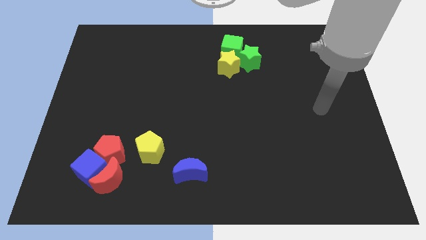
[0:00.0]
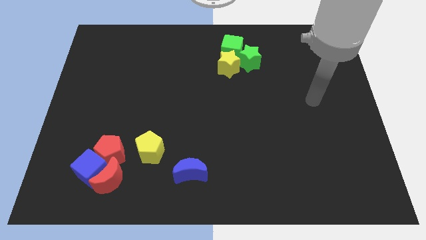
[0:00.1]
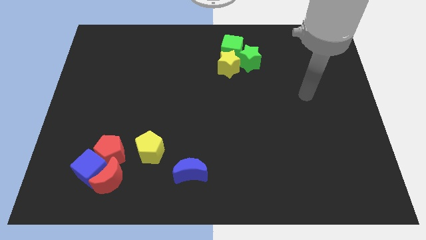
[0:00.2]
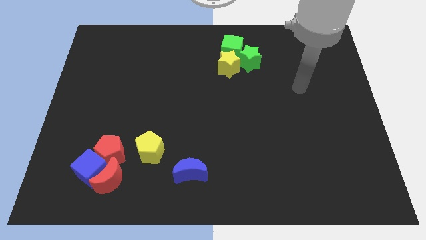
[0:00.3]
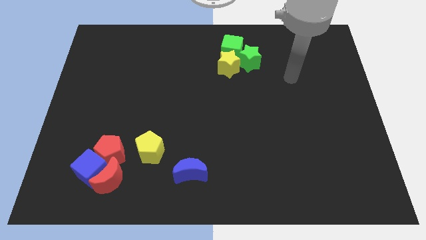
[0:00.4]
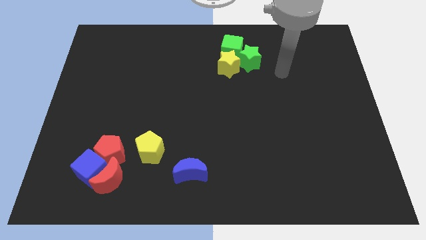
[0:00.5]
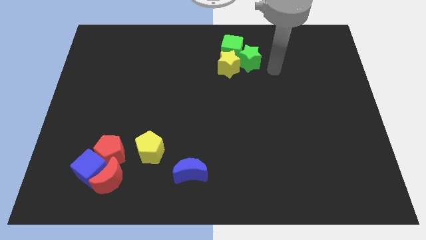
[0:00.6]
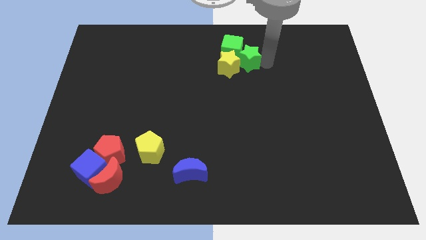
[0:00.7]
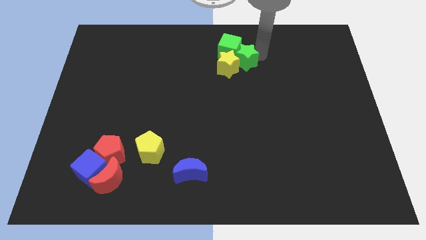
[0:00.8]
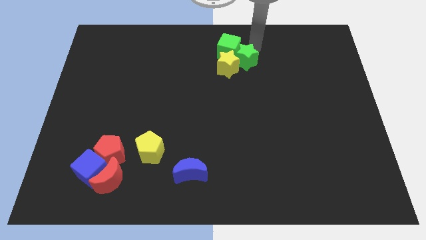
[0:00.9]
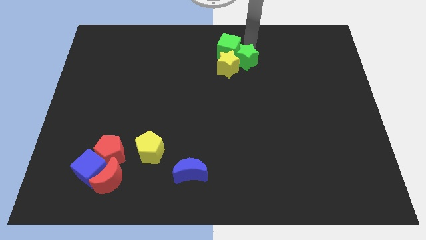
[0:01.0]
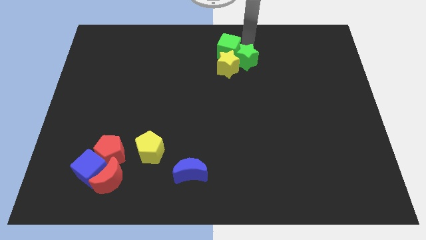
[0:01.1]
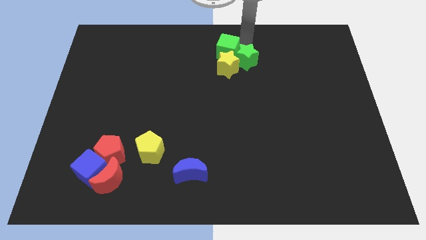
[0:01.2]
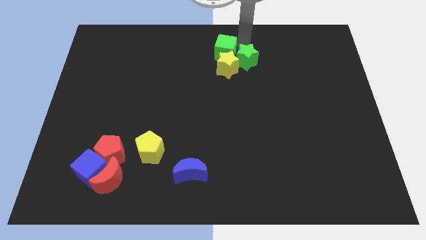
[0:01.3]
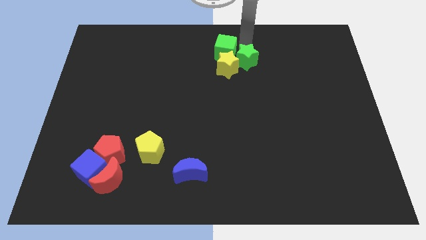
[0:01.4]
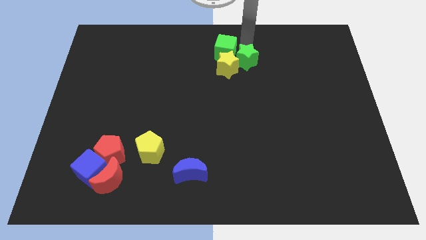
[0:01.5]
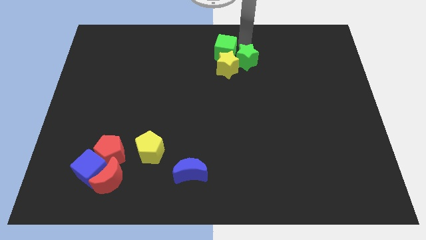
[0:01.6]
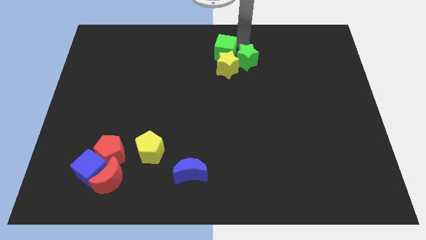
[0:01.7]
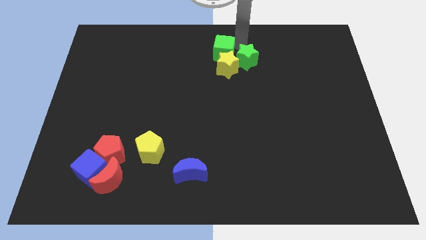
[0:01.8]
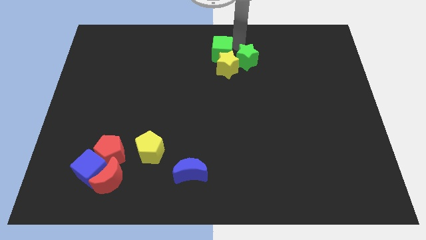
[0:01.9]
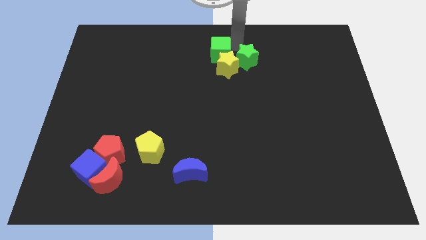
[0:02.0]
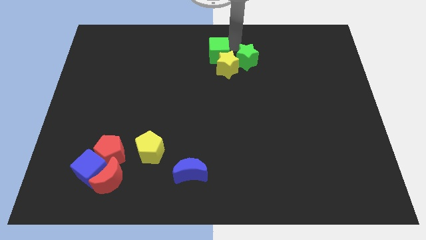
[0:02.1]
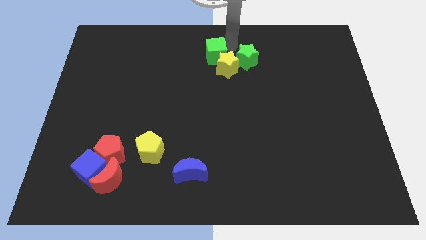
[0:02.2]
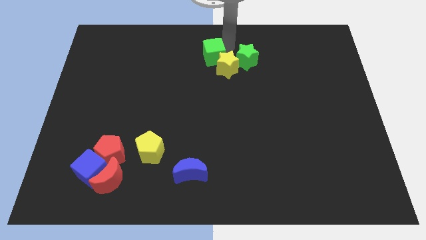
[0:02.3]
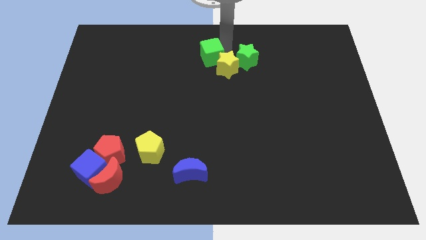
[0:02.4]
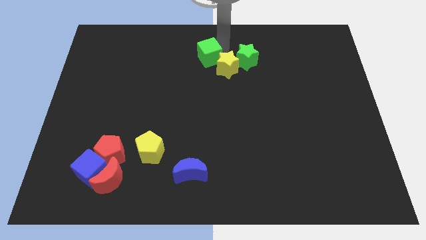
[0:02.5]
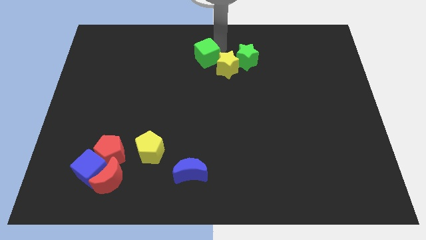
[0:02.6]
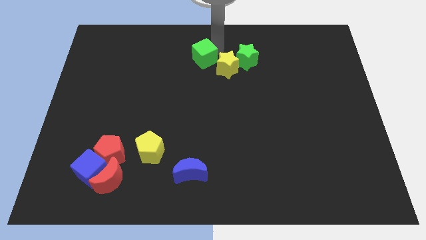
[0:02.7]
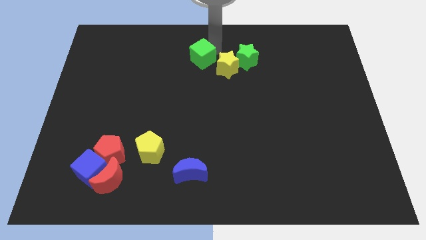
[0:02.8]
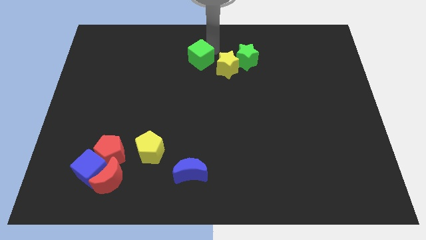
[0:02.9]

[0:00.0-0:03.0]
move the green cube down and left a little bit

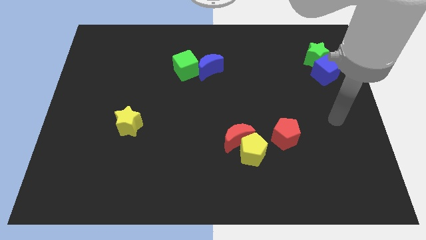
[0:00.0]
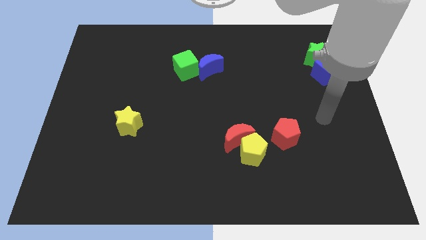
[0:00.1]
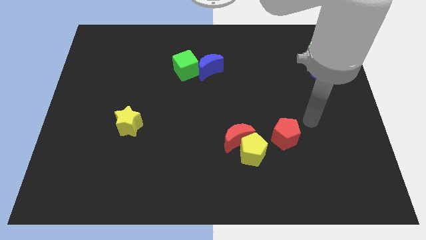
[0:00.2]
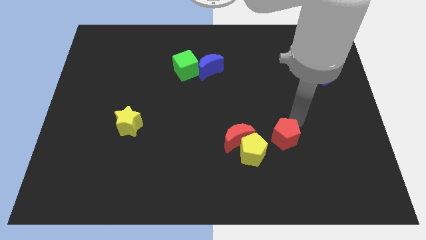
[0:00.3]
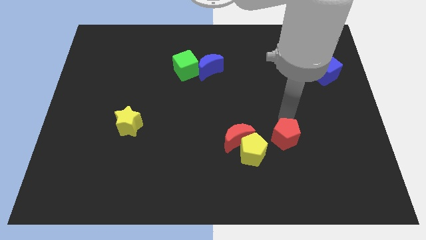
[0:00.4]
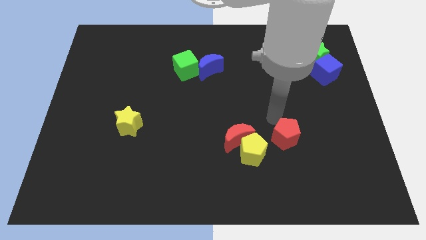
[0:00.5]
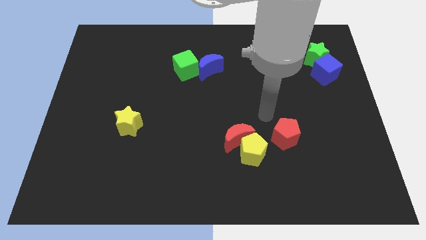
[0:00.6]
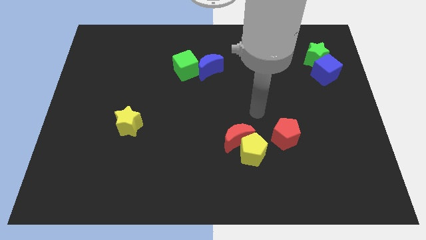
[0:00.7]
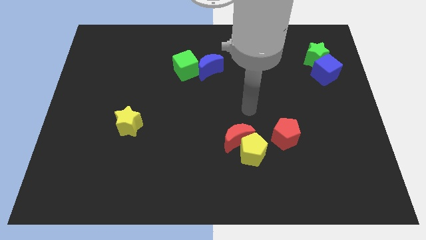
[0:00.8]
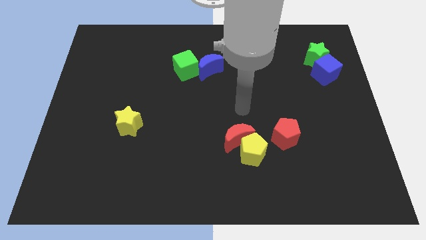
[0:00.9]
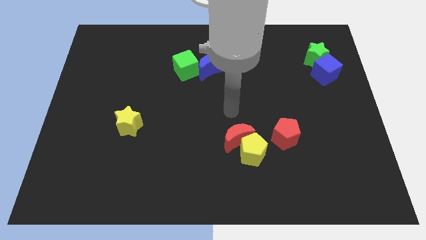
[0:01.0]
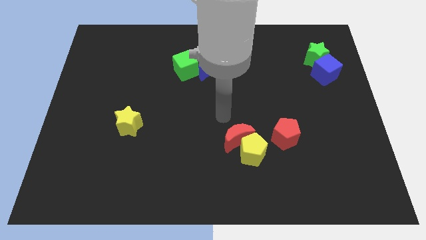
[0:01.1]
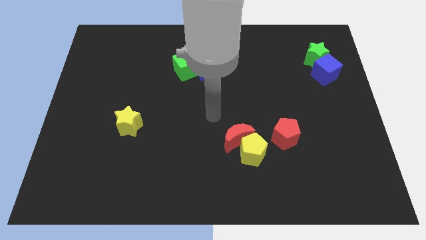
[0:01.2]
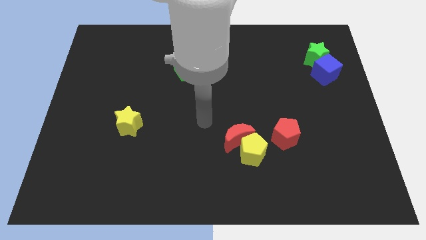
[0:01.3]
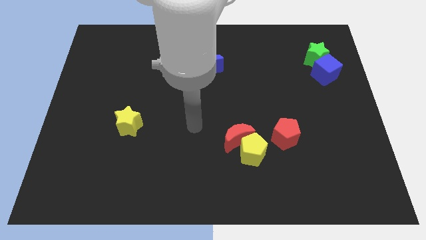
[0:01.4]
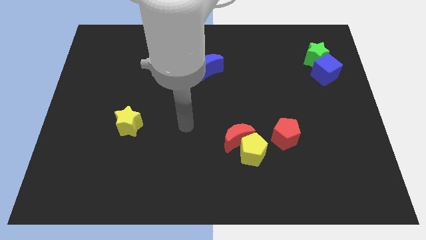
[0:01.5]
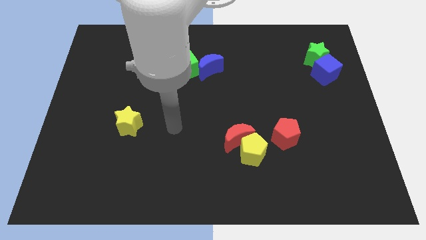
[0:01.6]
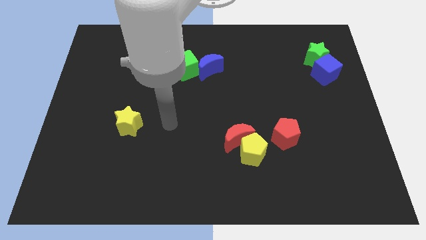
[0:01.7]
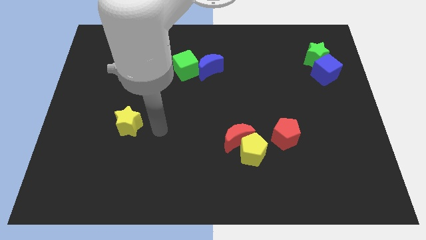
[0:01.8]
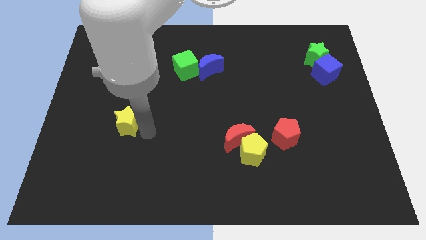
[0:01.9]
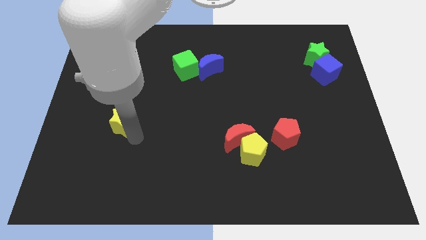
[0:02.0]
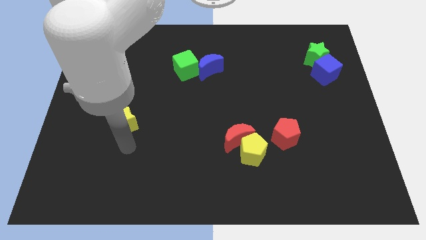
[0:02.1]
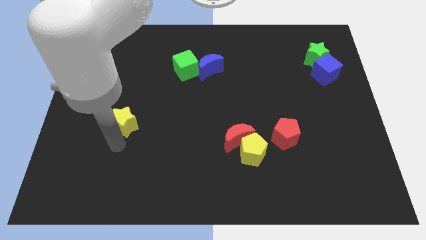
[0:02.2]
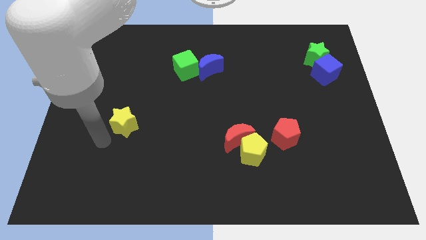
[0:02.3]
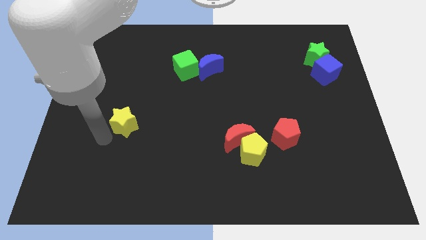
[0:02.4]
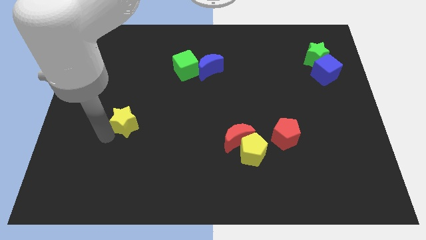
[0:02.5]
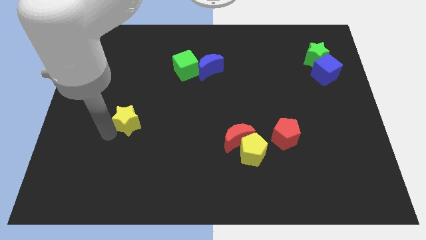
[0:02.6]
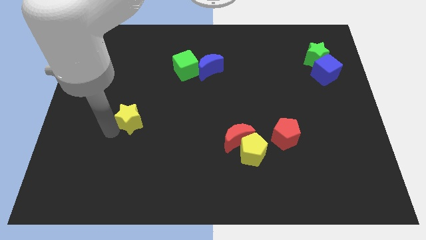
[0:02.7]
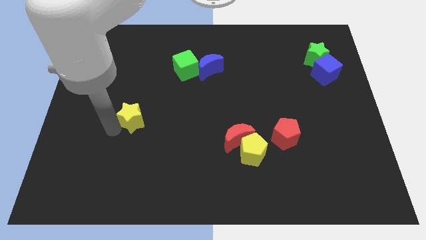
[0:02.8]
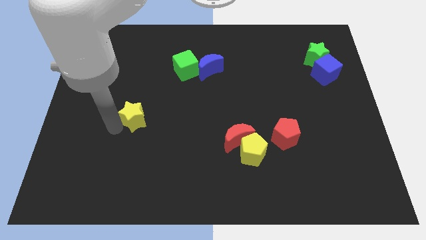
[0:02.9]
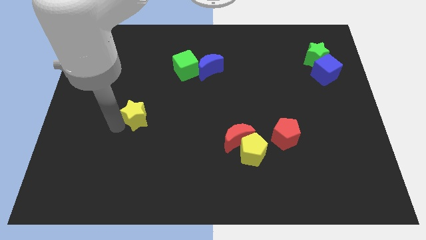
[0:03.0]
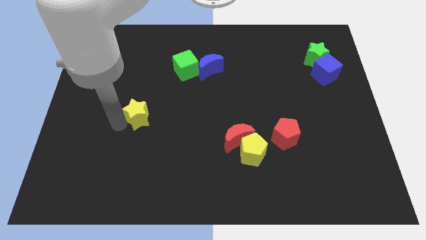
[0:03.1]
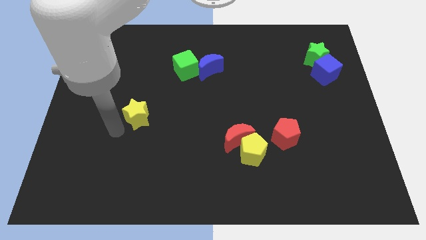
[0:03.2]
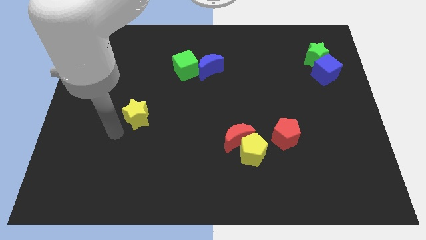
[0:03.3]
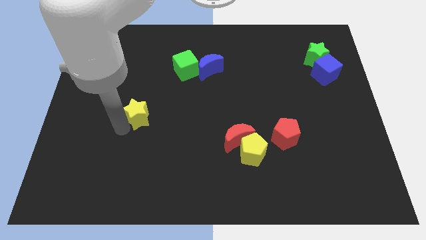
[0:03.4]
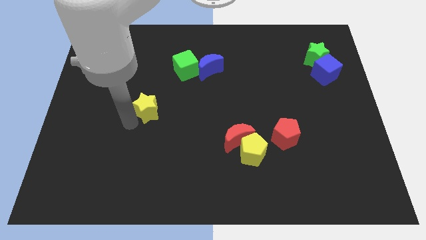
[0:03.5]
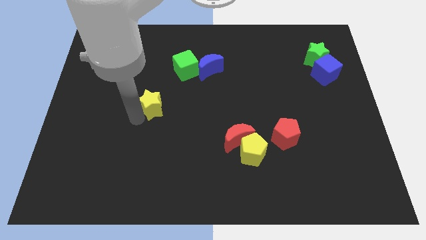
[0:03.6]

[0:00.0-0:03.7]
move the yellow star a little up and right

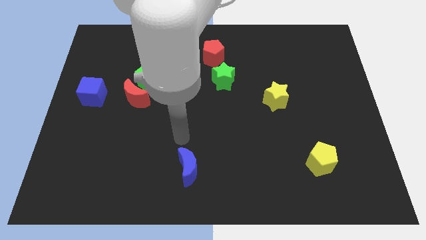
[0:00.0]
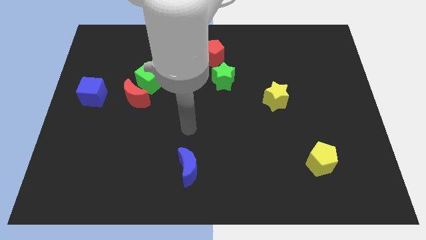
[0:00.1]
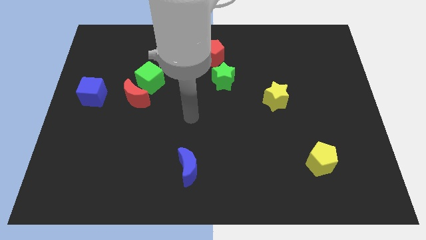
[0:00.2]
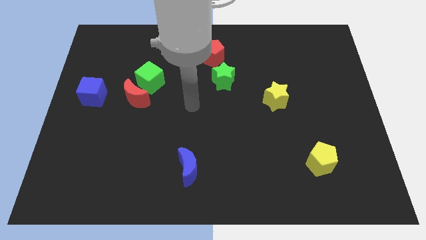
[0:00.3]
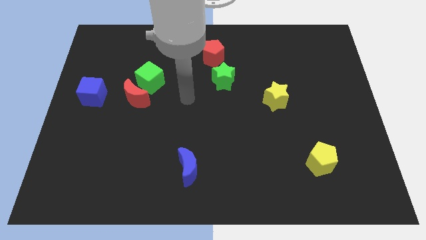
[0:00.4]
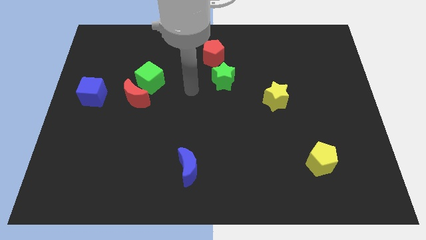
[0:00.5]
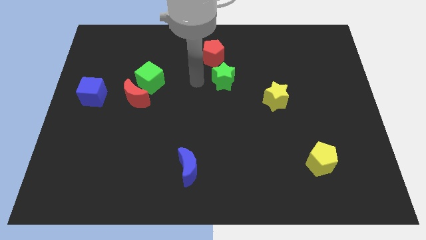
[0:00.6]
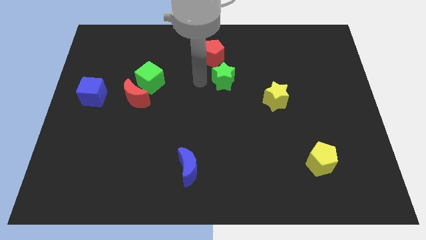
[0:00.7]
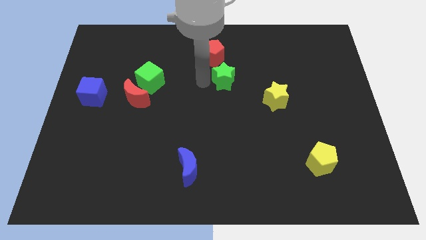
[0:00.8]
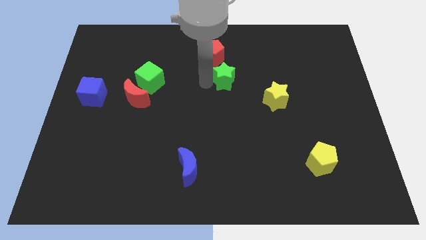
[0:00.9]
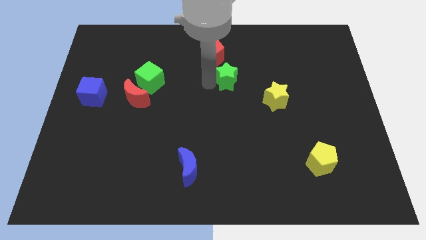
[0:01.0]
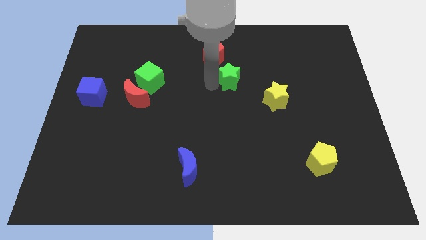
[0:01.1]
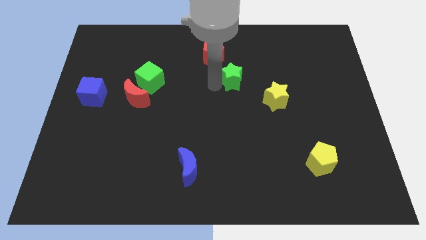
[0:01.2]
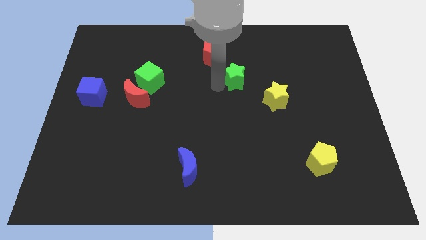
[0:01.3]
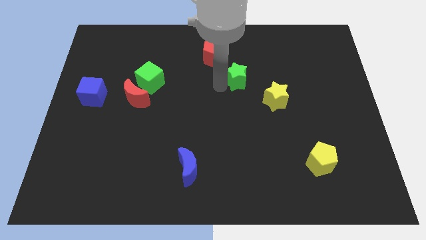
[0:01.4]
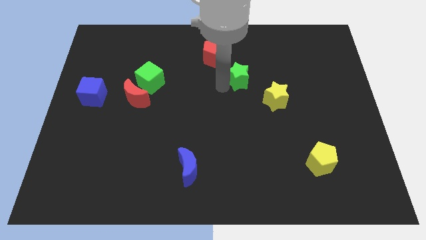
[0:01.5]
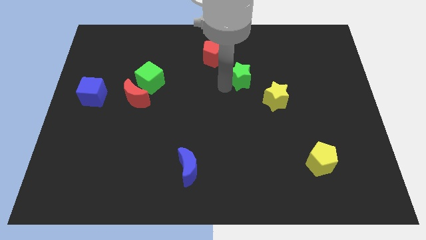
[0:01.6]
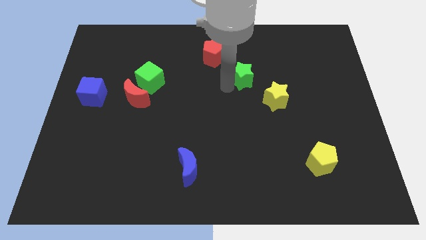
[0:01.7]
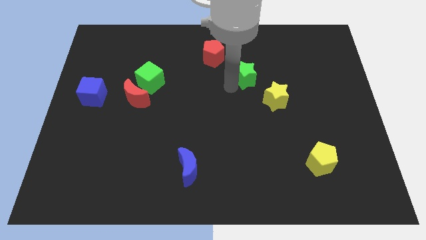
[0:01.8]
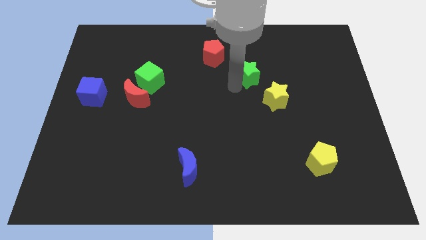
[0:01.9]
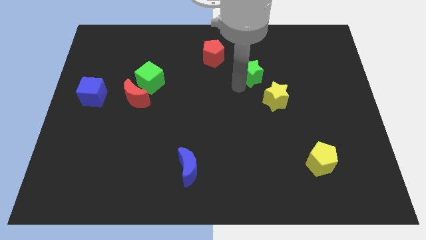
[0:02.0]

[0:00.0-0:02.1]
push the green star right somewhat
